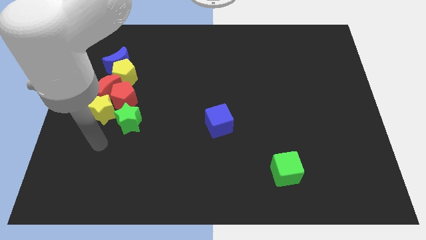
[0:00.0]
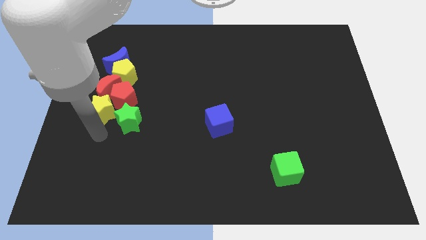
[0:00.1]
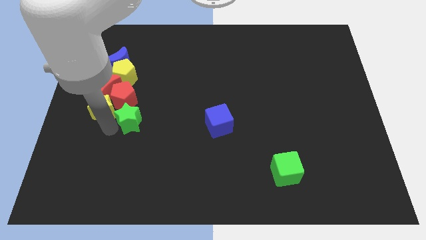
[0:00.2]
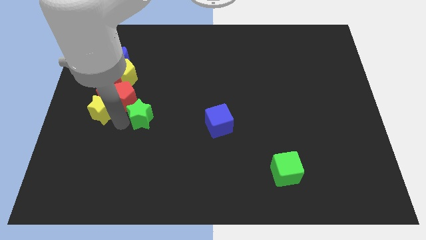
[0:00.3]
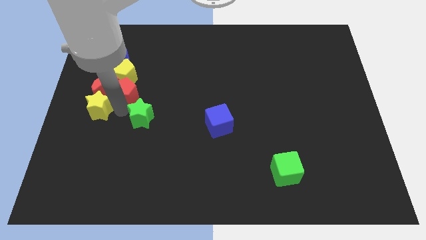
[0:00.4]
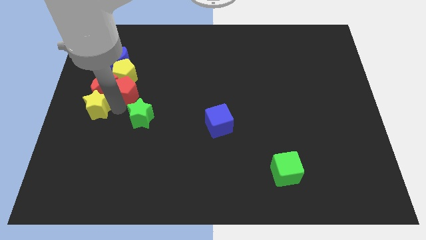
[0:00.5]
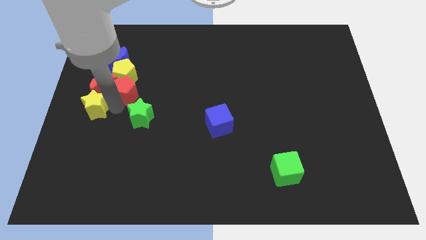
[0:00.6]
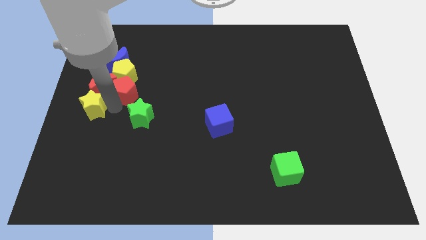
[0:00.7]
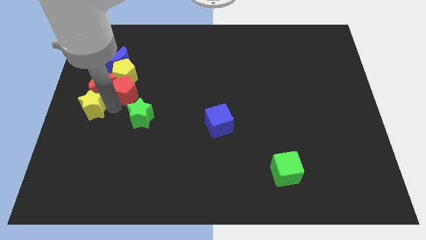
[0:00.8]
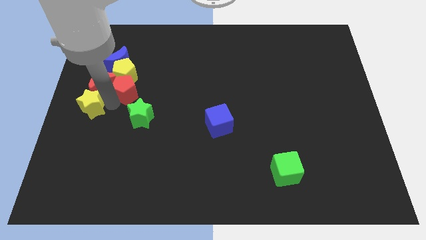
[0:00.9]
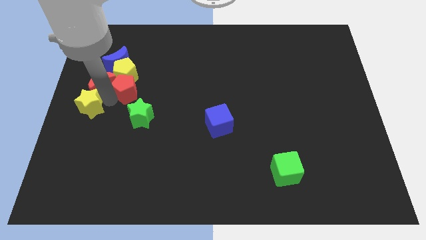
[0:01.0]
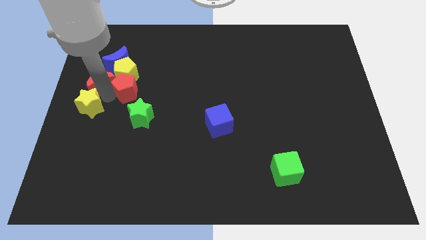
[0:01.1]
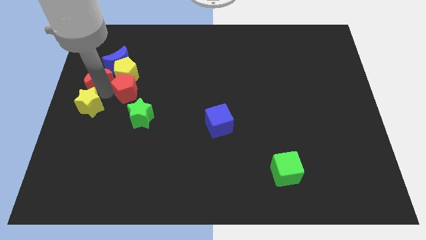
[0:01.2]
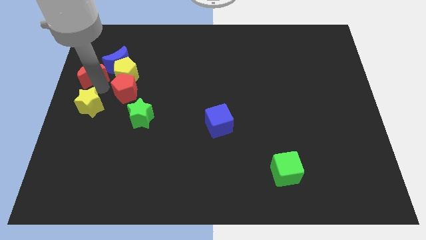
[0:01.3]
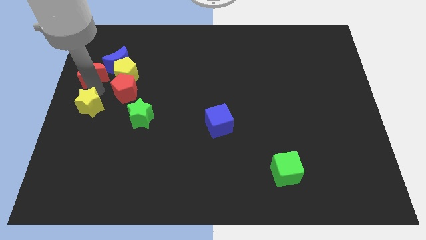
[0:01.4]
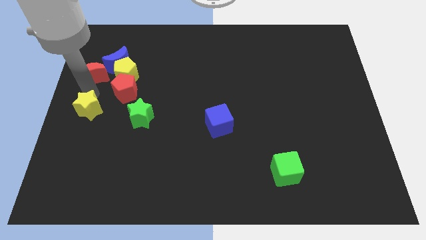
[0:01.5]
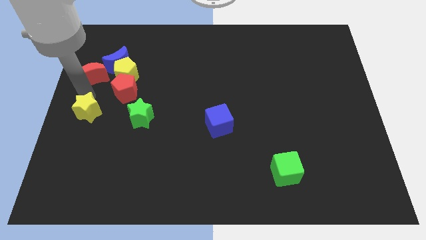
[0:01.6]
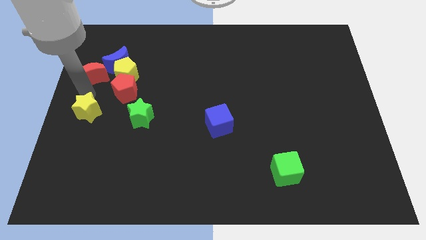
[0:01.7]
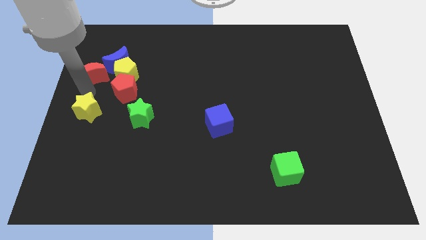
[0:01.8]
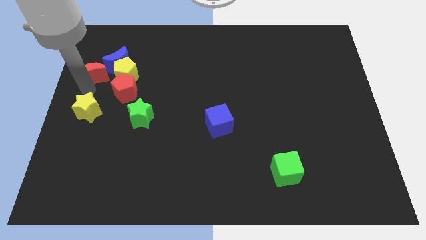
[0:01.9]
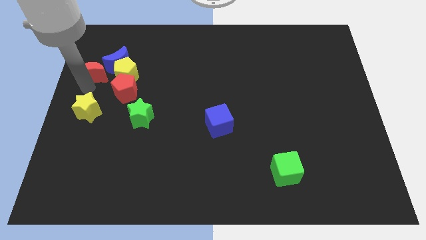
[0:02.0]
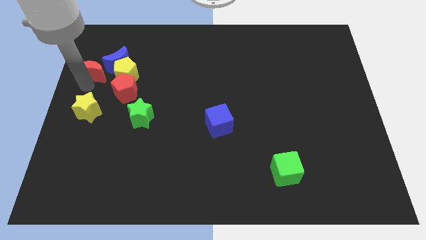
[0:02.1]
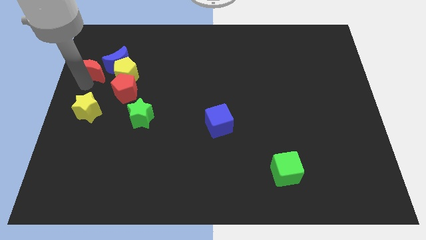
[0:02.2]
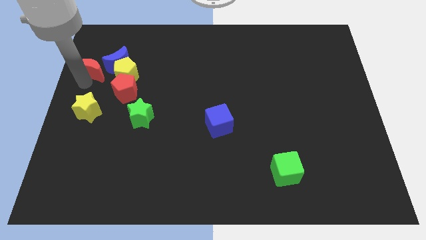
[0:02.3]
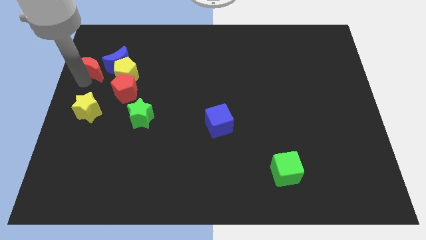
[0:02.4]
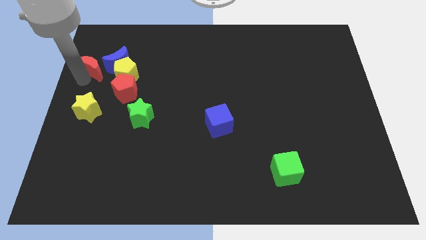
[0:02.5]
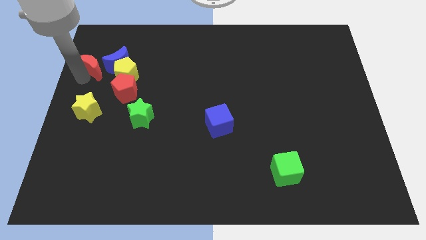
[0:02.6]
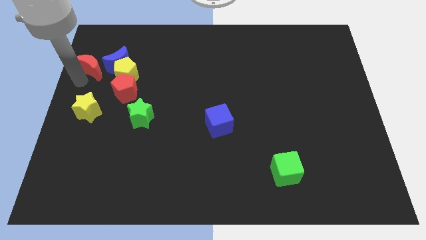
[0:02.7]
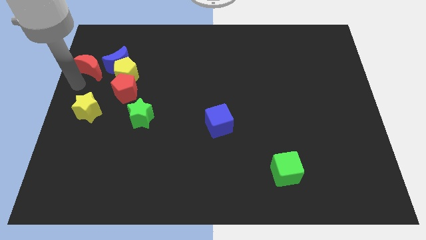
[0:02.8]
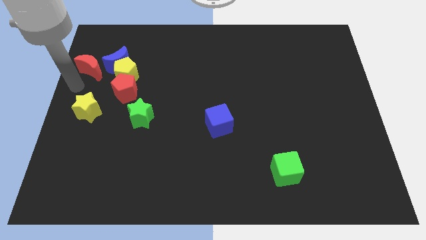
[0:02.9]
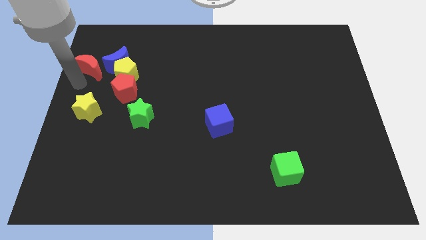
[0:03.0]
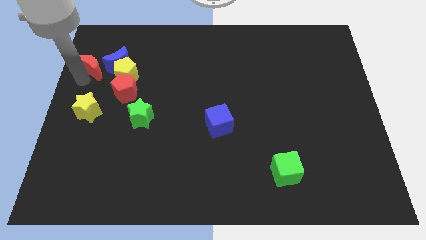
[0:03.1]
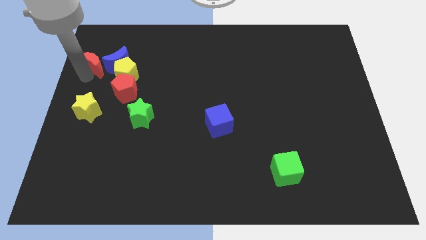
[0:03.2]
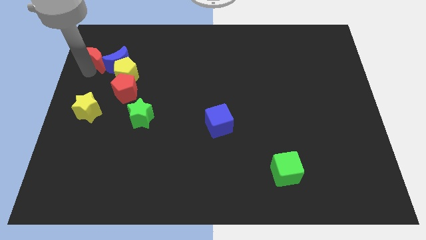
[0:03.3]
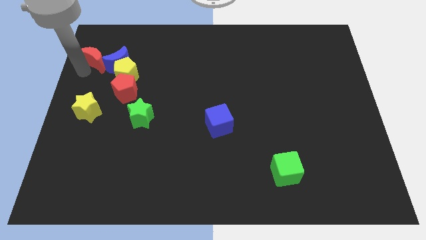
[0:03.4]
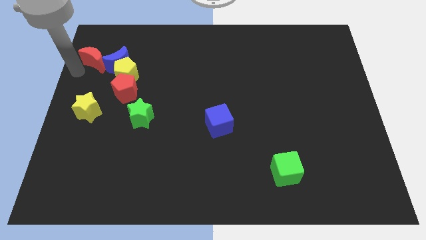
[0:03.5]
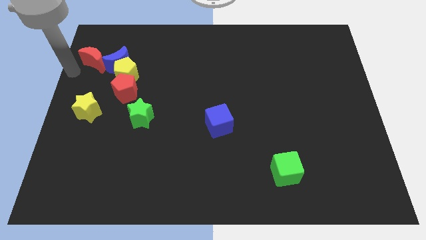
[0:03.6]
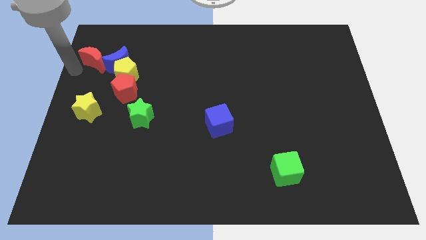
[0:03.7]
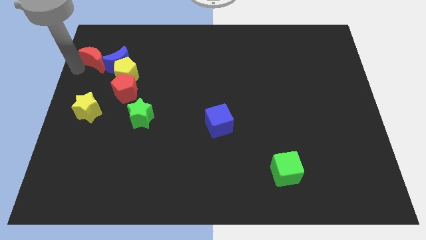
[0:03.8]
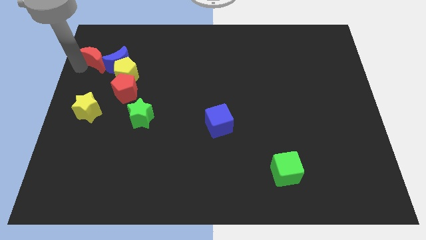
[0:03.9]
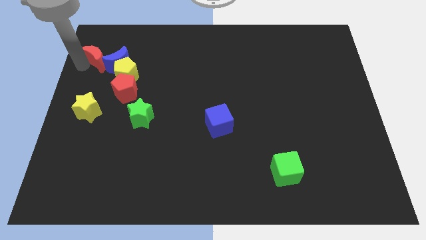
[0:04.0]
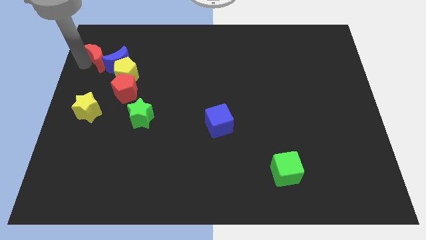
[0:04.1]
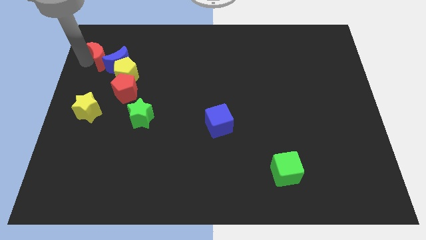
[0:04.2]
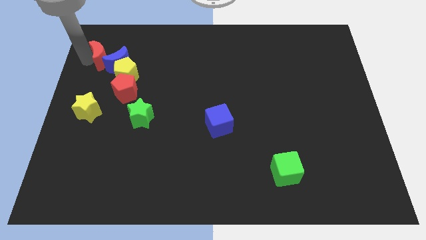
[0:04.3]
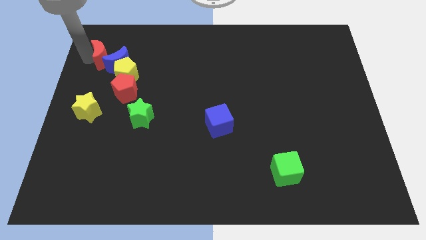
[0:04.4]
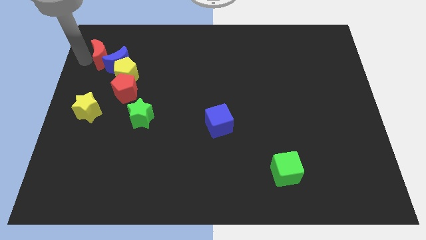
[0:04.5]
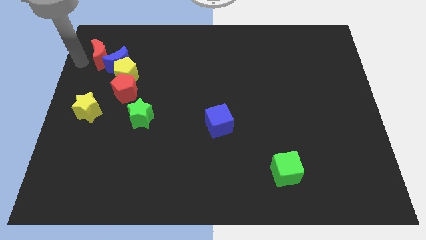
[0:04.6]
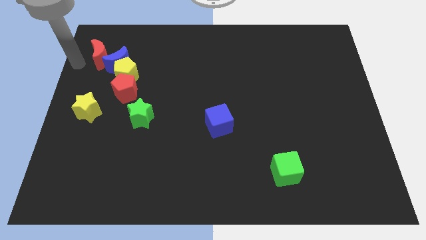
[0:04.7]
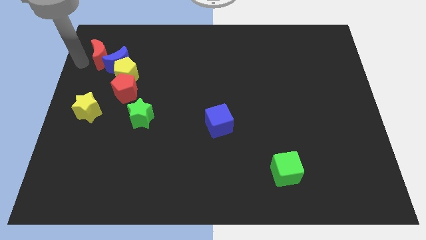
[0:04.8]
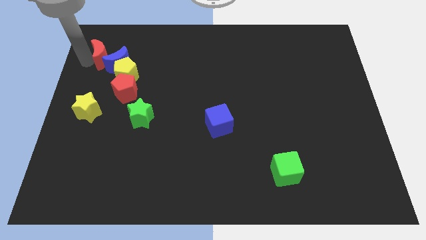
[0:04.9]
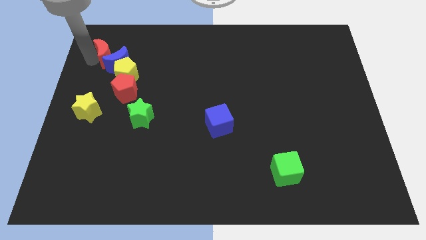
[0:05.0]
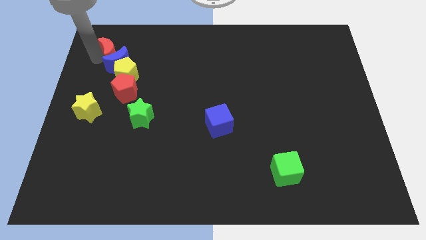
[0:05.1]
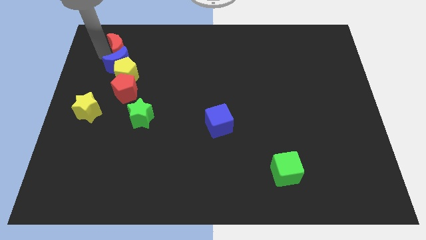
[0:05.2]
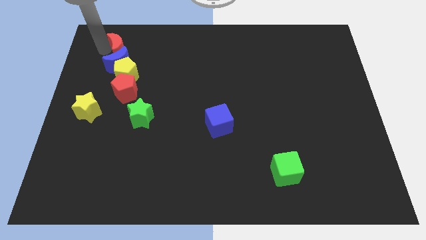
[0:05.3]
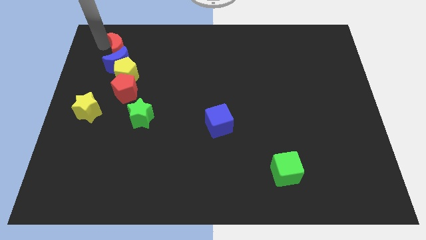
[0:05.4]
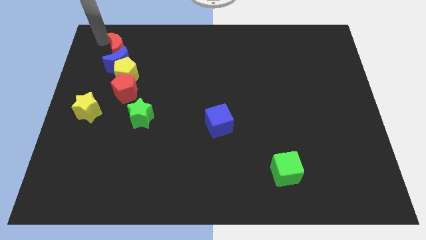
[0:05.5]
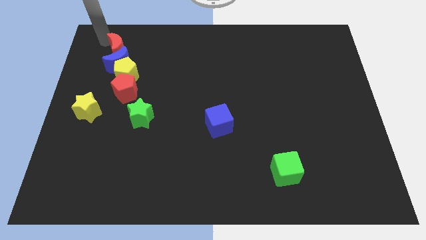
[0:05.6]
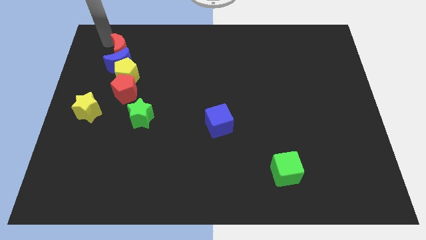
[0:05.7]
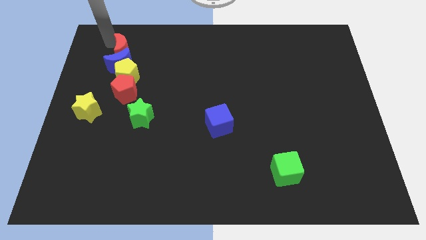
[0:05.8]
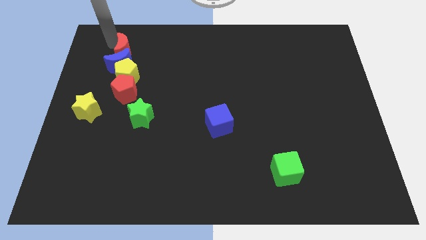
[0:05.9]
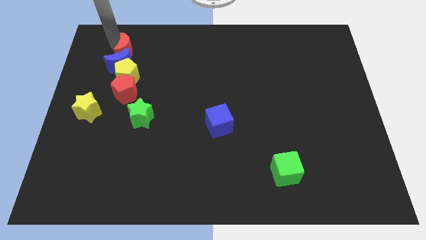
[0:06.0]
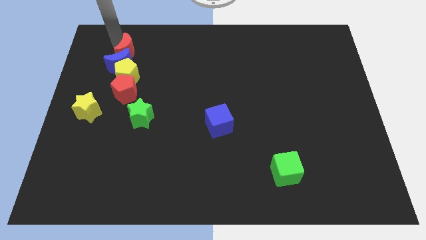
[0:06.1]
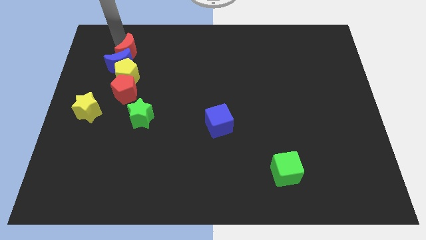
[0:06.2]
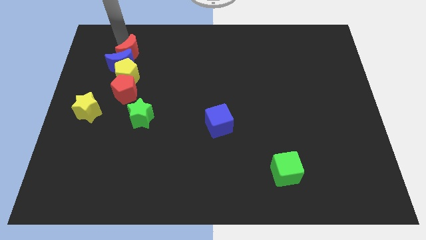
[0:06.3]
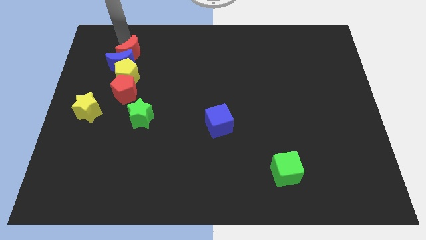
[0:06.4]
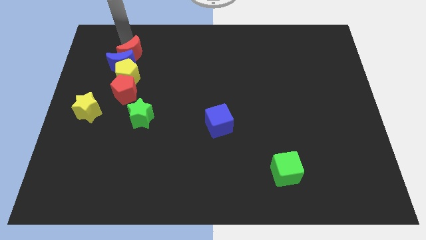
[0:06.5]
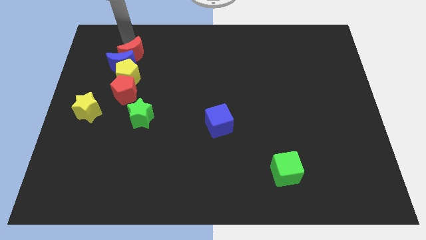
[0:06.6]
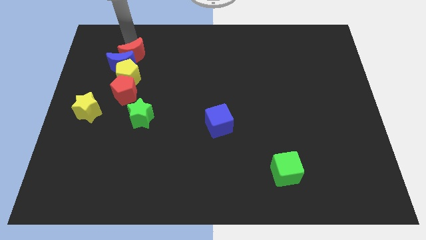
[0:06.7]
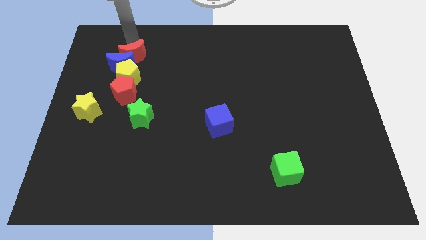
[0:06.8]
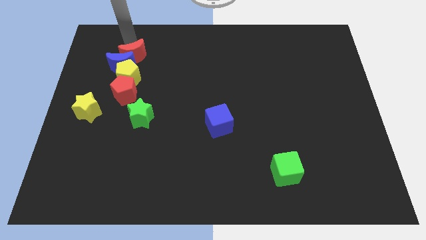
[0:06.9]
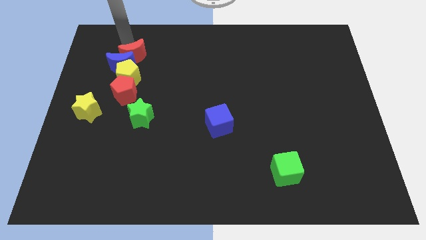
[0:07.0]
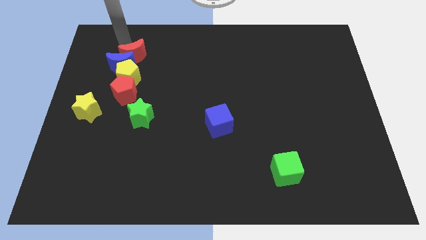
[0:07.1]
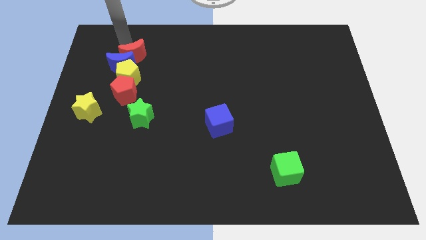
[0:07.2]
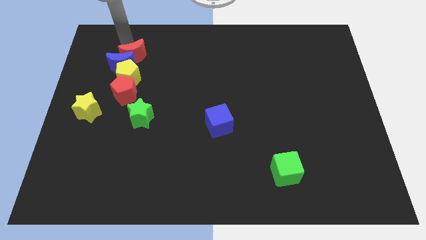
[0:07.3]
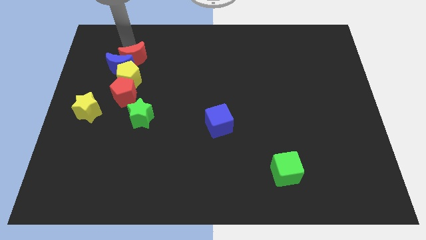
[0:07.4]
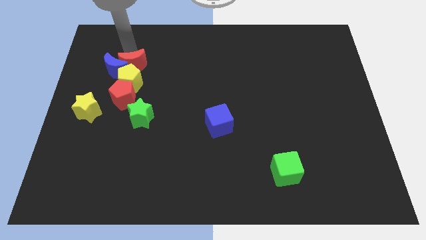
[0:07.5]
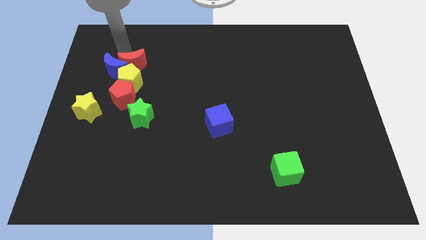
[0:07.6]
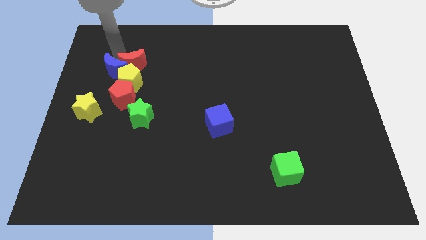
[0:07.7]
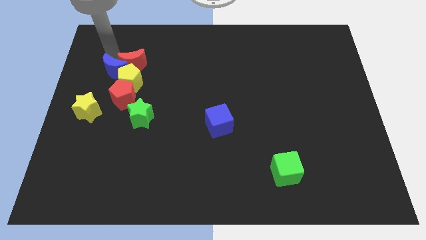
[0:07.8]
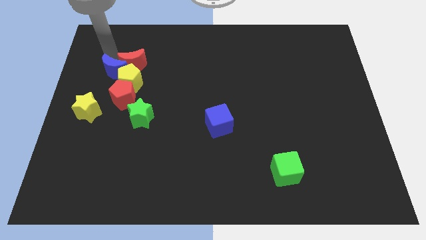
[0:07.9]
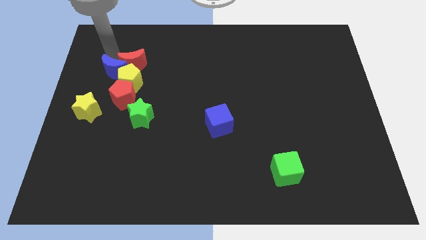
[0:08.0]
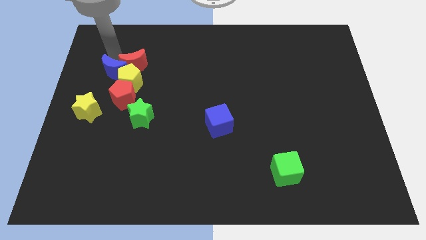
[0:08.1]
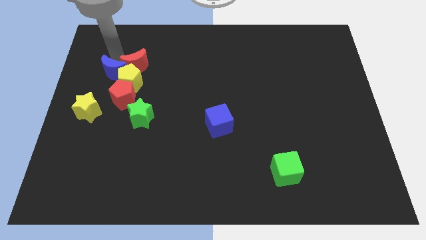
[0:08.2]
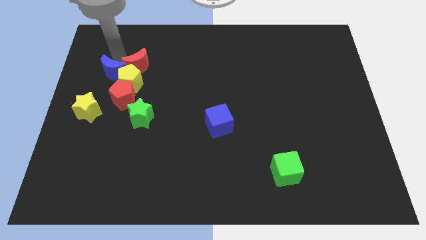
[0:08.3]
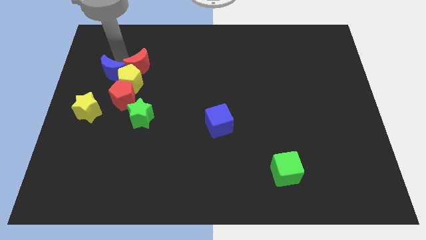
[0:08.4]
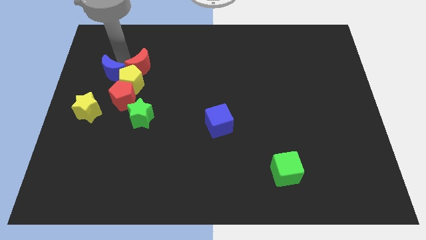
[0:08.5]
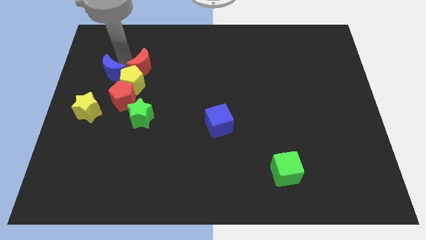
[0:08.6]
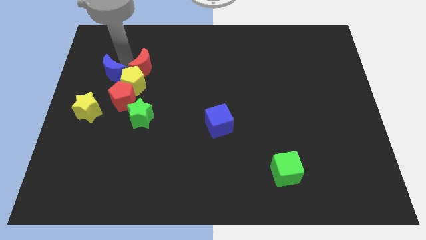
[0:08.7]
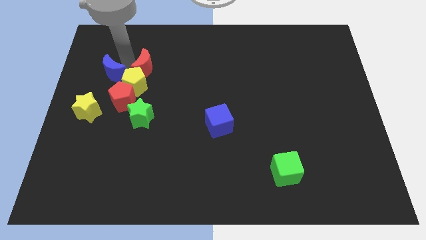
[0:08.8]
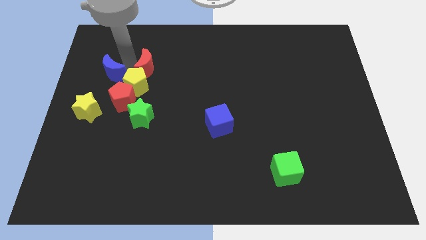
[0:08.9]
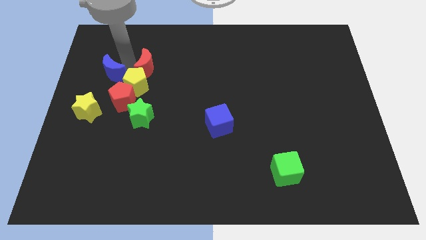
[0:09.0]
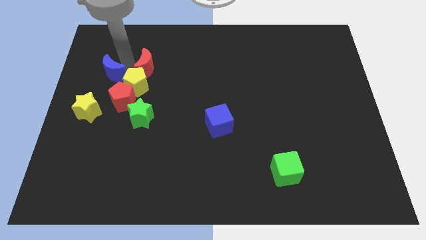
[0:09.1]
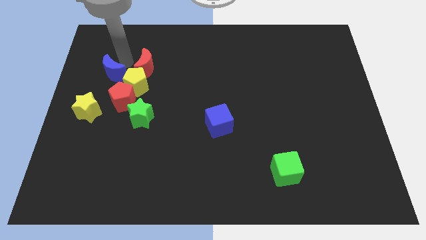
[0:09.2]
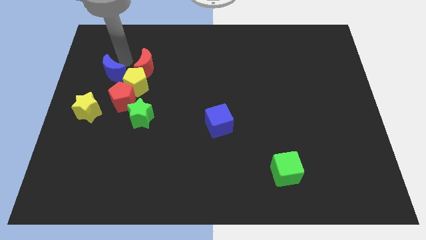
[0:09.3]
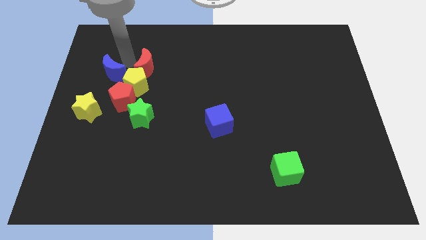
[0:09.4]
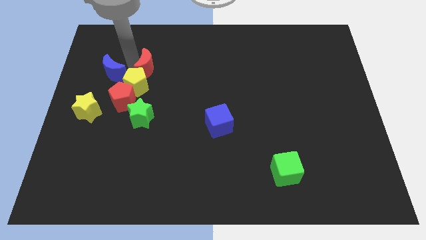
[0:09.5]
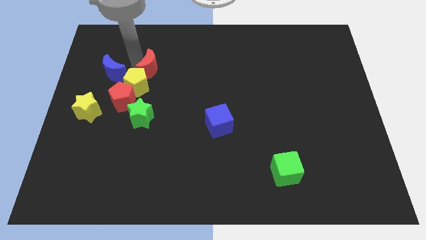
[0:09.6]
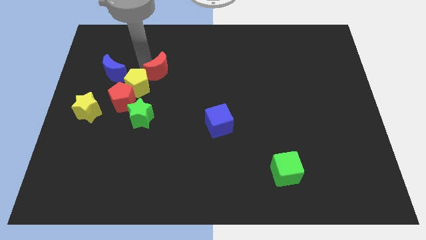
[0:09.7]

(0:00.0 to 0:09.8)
slide the red moon right a little bit
